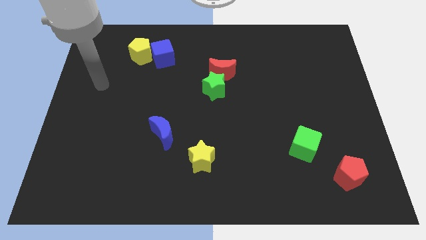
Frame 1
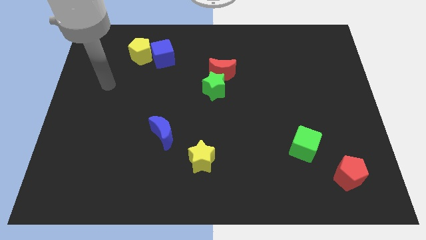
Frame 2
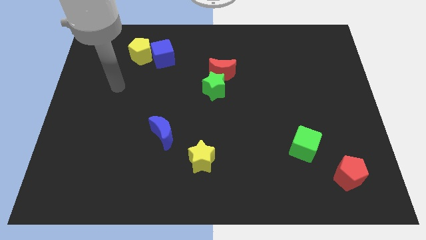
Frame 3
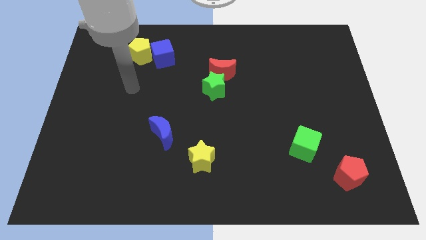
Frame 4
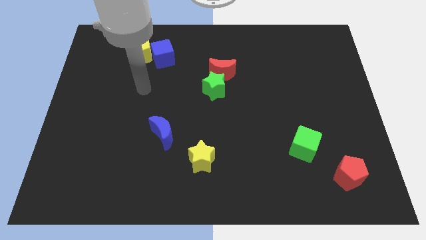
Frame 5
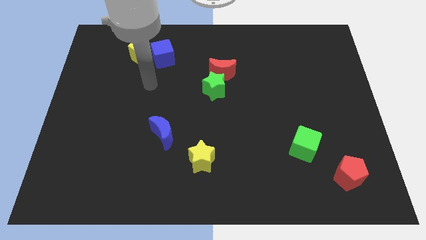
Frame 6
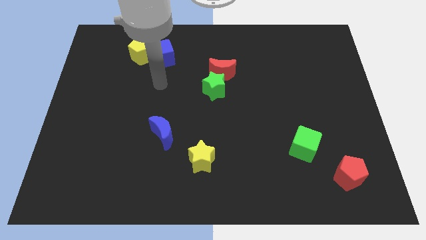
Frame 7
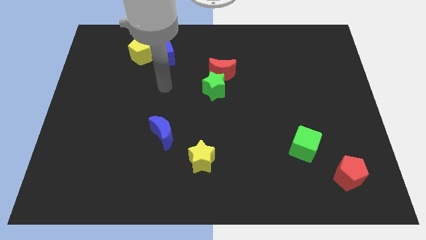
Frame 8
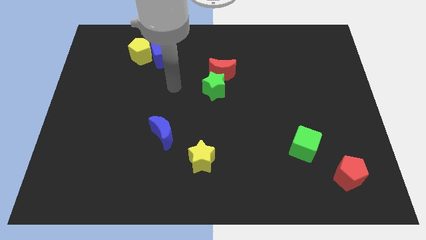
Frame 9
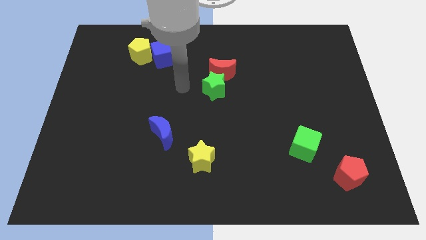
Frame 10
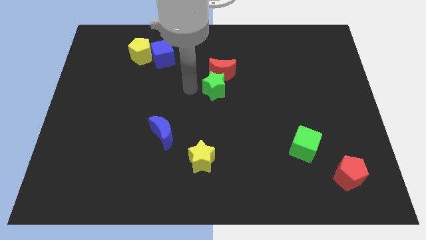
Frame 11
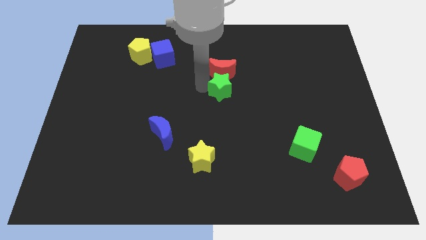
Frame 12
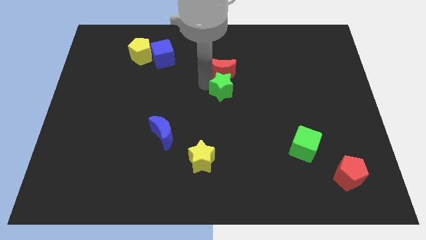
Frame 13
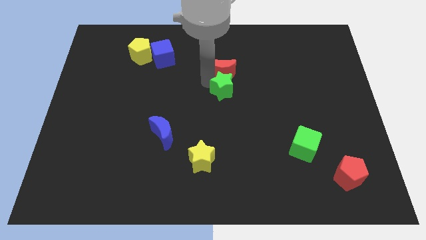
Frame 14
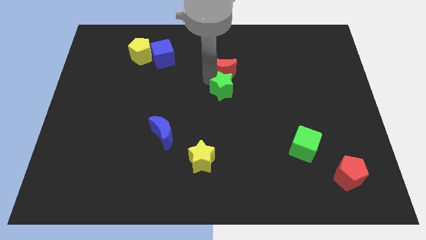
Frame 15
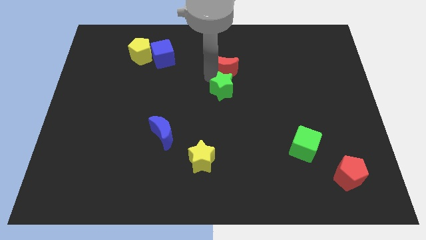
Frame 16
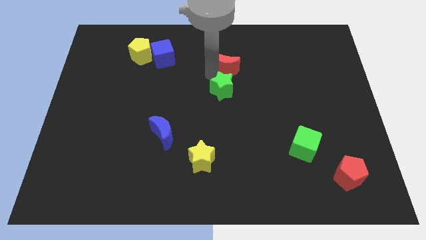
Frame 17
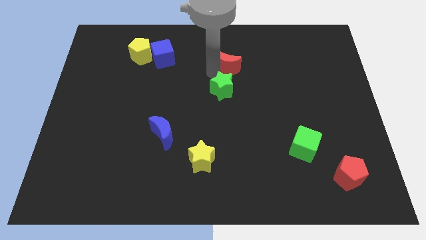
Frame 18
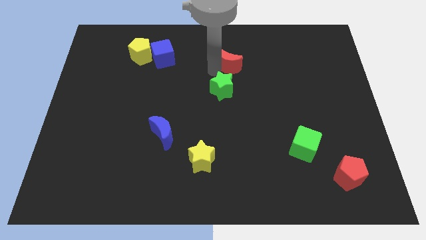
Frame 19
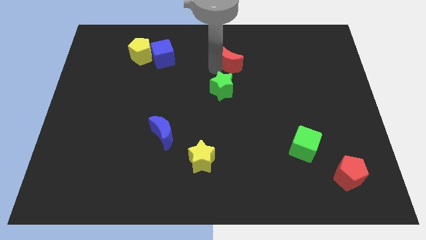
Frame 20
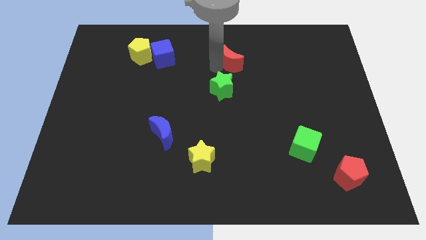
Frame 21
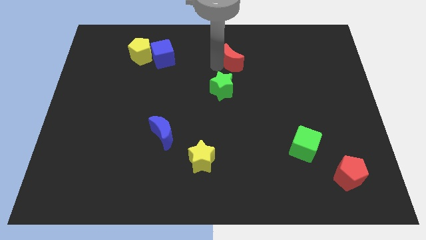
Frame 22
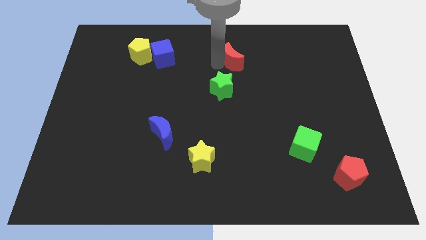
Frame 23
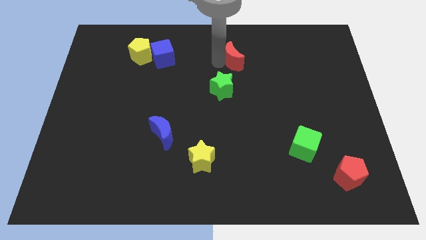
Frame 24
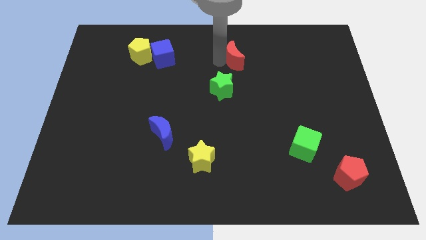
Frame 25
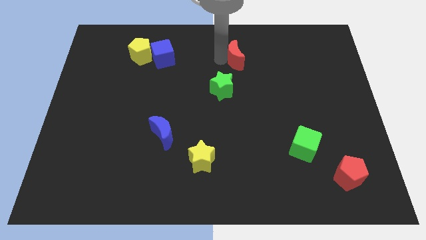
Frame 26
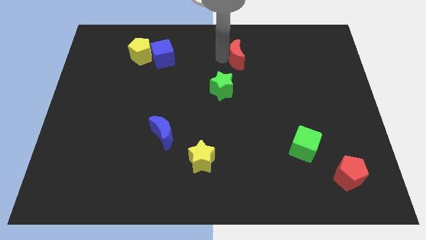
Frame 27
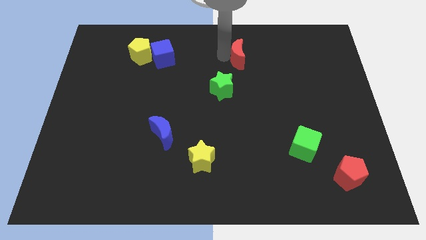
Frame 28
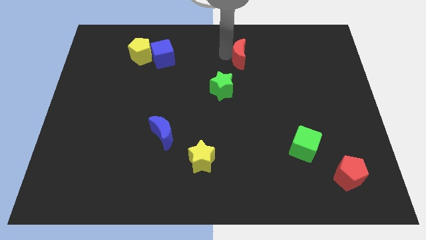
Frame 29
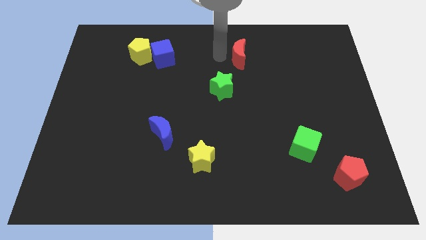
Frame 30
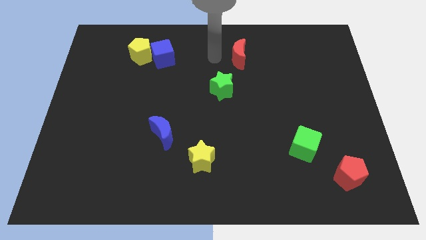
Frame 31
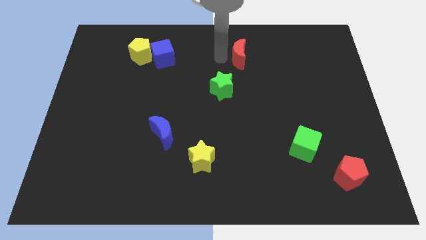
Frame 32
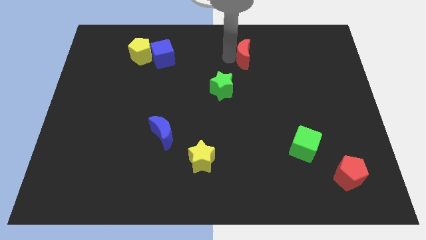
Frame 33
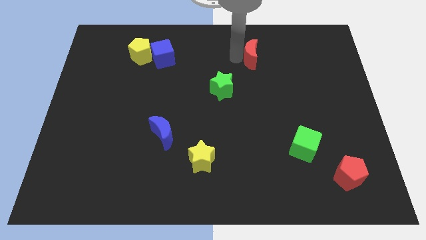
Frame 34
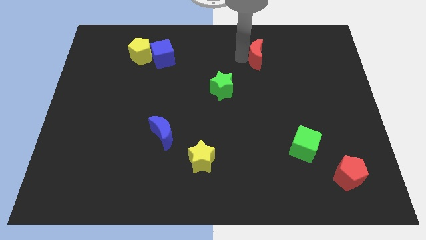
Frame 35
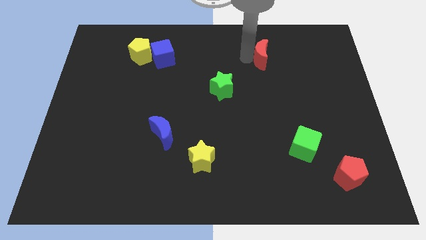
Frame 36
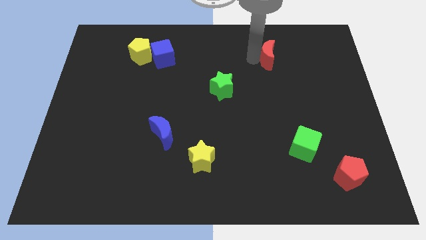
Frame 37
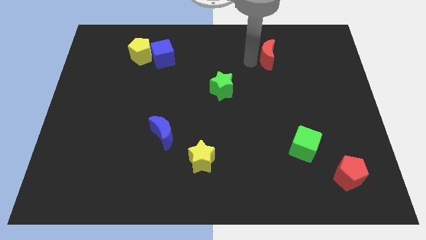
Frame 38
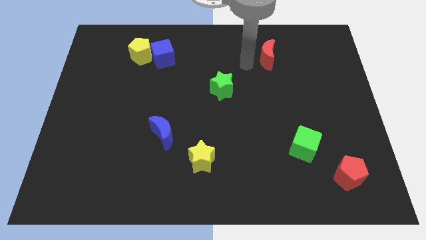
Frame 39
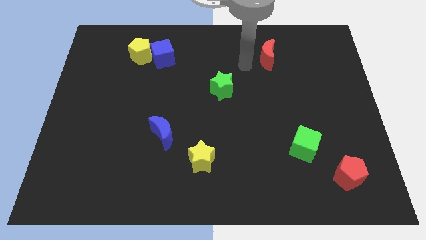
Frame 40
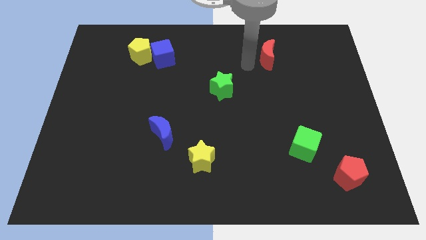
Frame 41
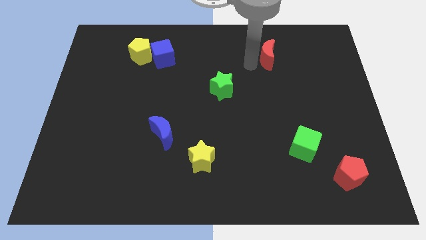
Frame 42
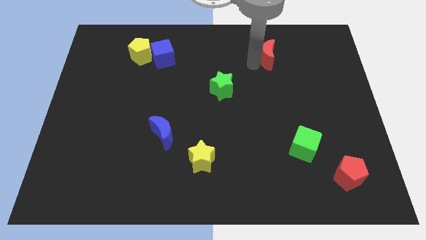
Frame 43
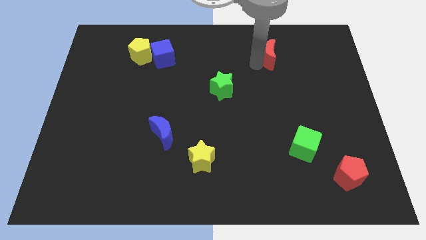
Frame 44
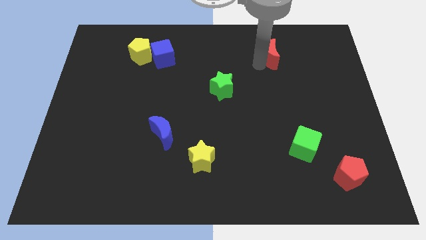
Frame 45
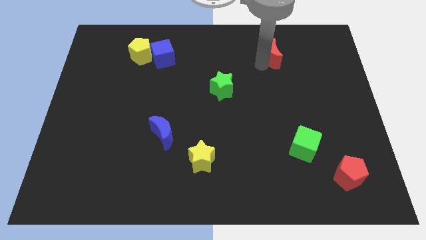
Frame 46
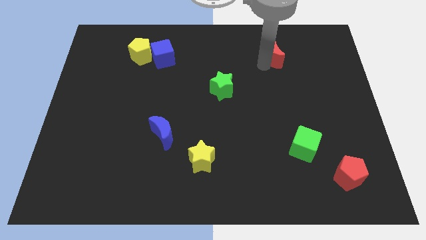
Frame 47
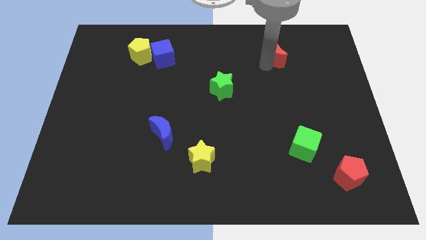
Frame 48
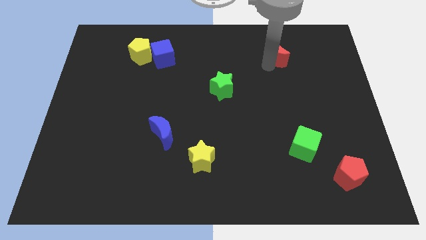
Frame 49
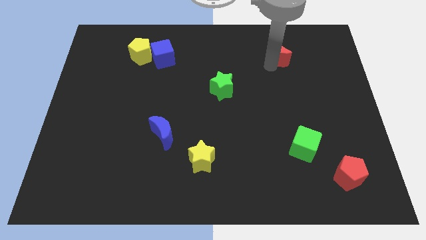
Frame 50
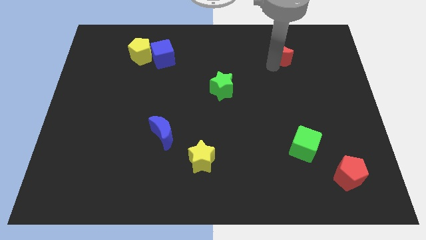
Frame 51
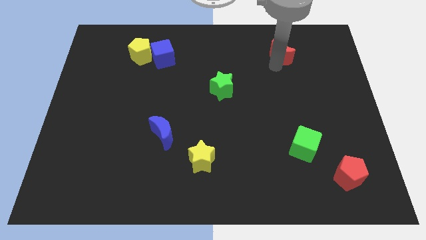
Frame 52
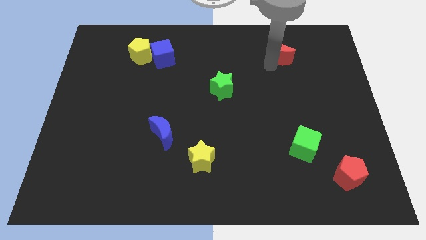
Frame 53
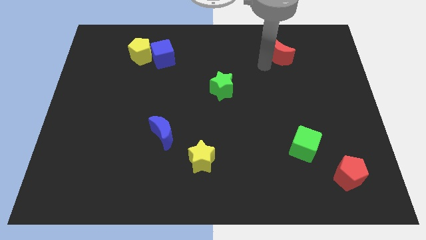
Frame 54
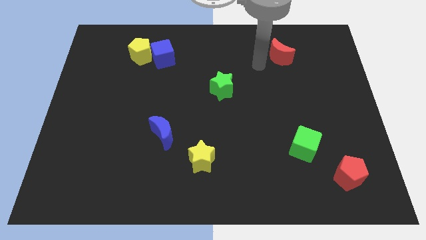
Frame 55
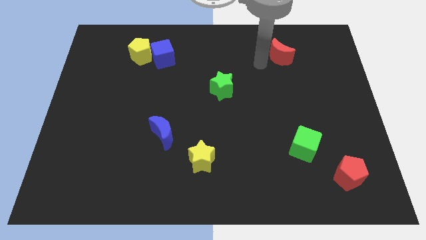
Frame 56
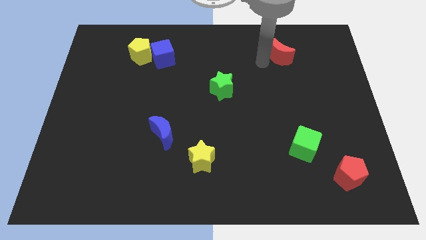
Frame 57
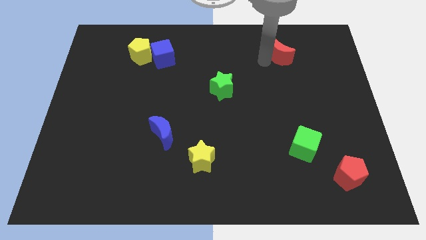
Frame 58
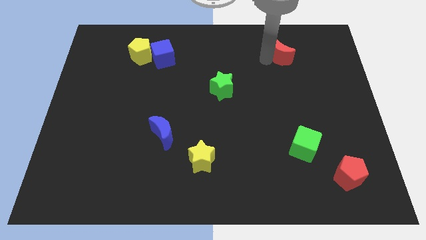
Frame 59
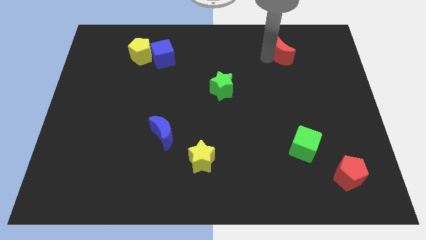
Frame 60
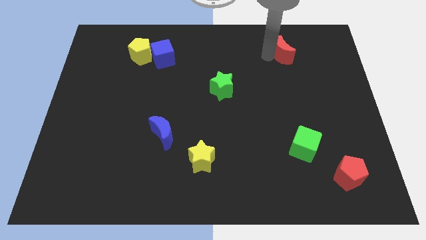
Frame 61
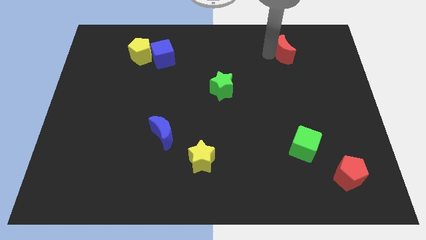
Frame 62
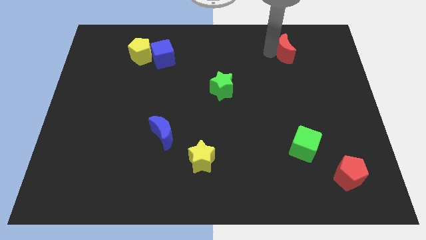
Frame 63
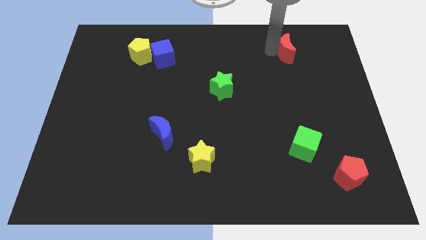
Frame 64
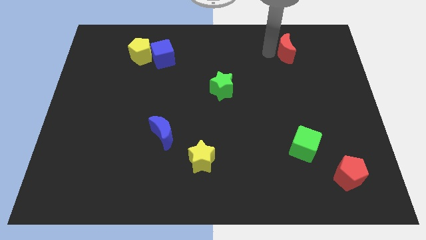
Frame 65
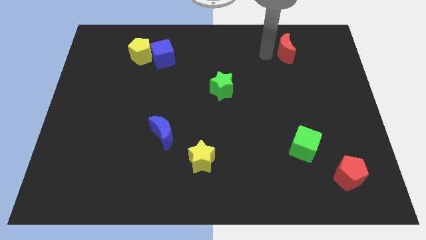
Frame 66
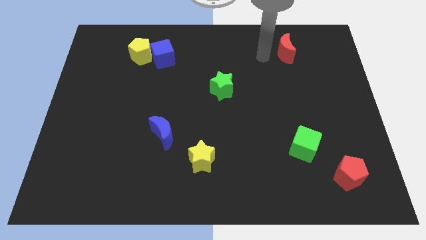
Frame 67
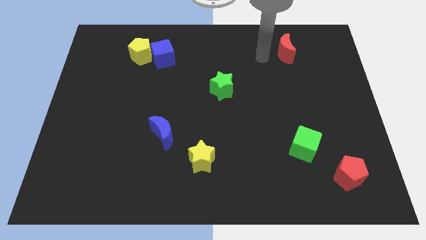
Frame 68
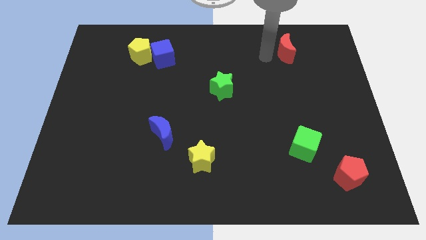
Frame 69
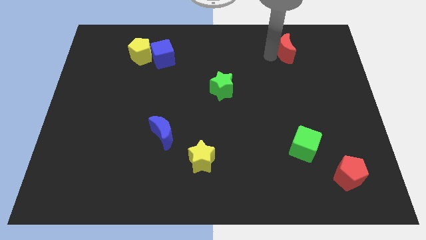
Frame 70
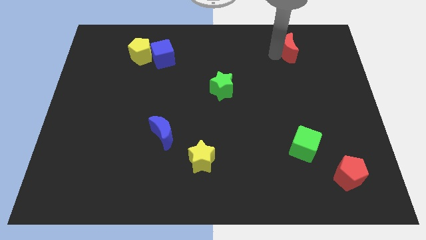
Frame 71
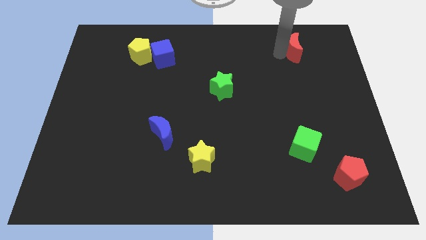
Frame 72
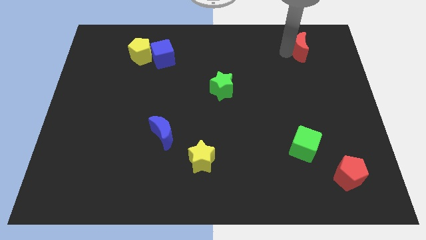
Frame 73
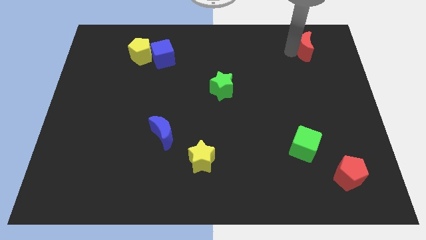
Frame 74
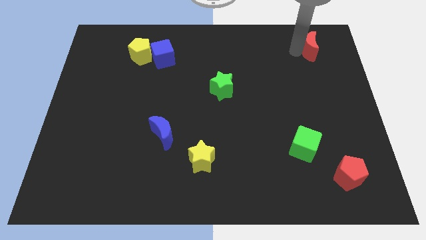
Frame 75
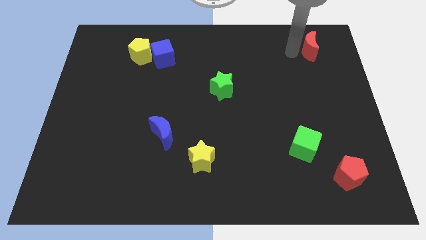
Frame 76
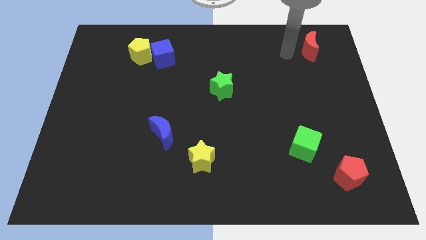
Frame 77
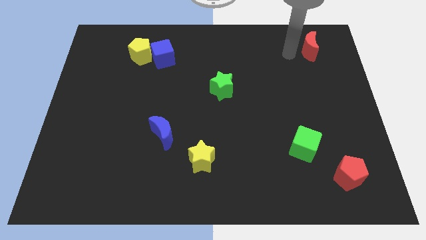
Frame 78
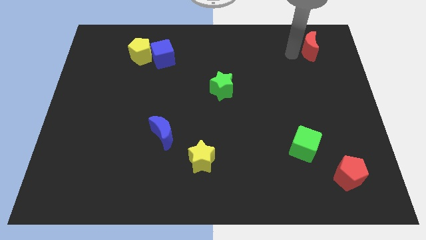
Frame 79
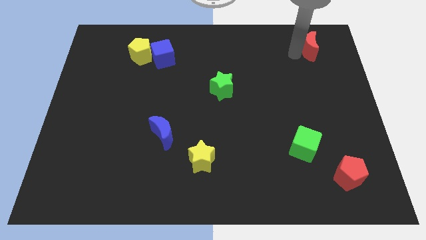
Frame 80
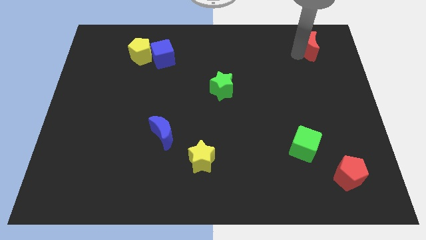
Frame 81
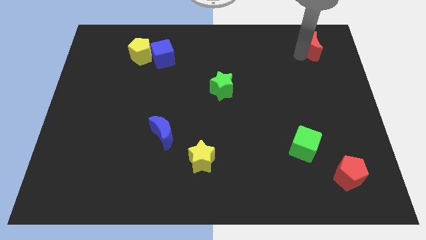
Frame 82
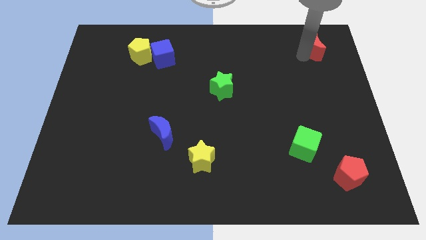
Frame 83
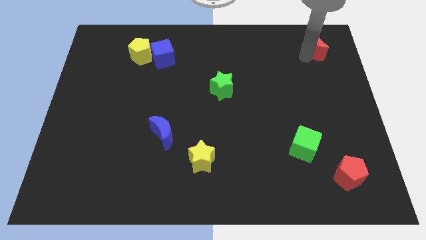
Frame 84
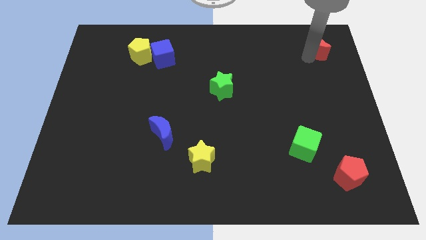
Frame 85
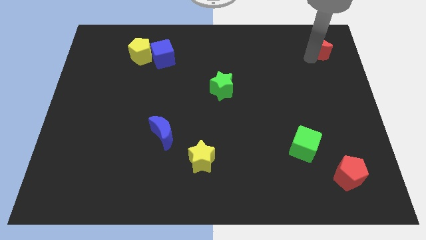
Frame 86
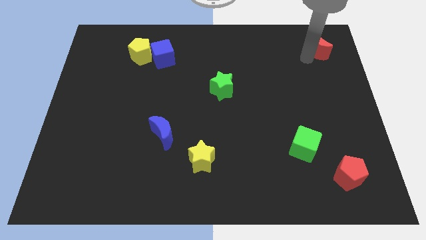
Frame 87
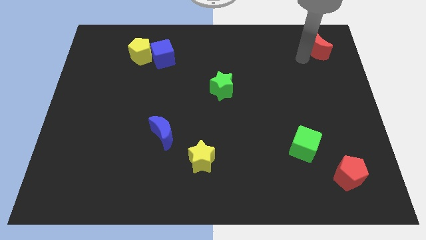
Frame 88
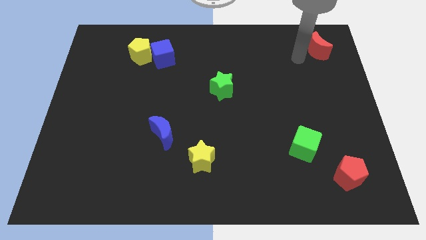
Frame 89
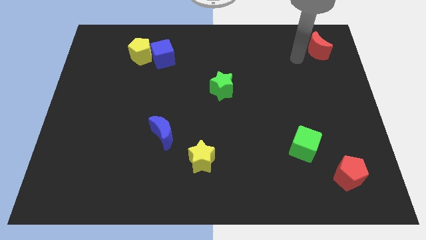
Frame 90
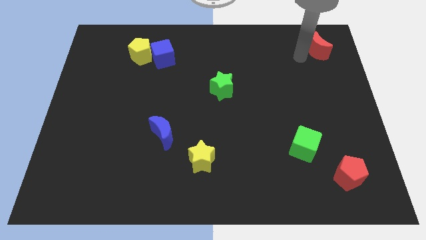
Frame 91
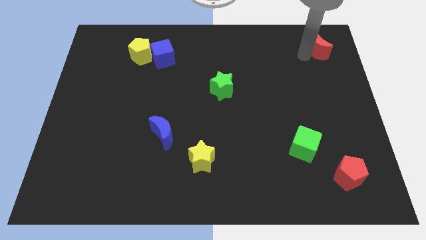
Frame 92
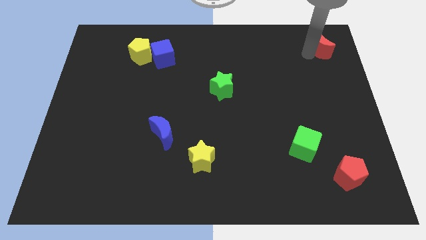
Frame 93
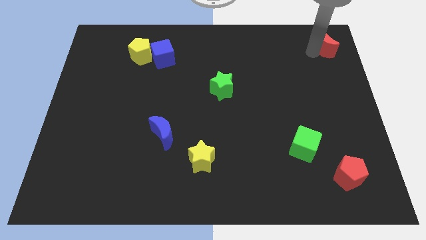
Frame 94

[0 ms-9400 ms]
push the red moon to the top right of the board
